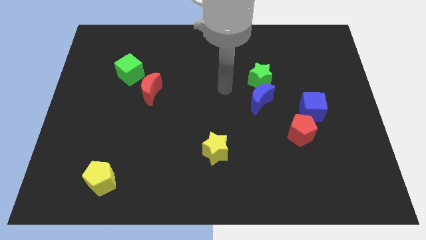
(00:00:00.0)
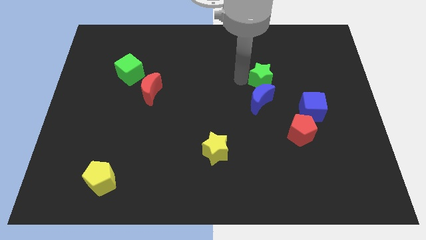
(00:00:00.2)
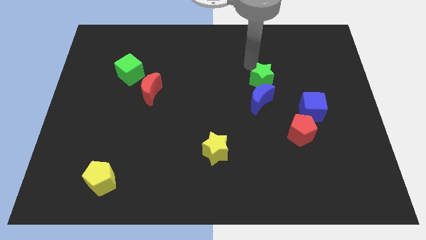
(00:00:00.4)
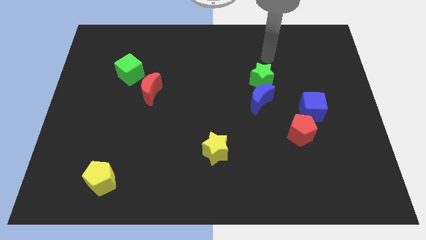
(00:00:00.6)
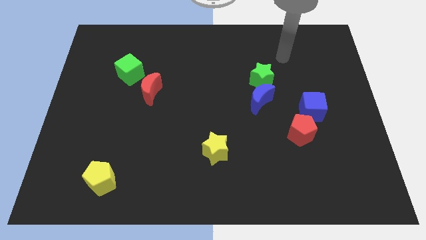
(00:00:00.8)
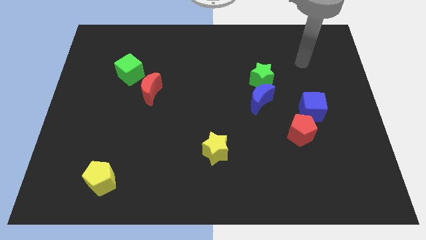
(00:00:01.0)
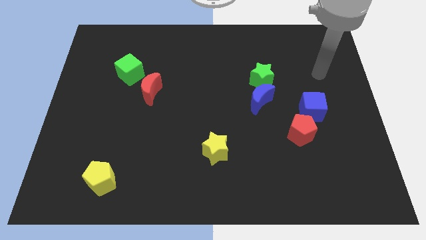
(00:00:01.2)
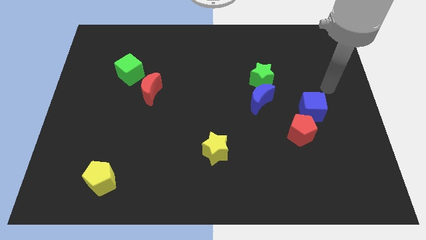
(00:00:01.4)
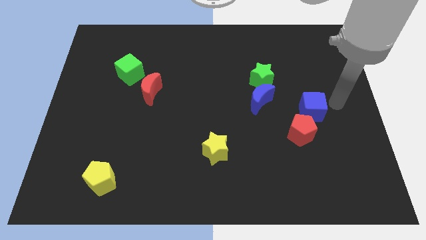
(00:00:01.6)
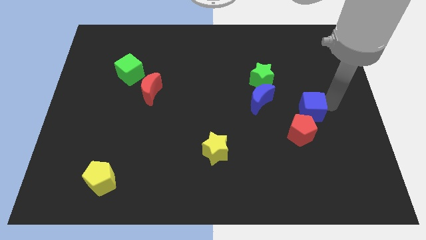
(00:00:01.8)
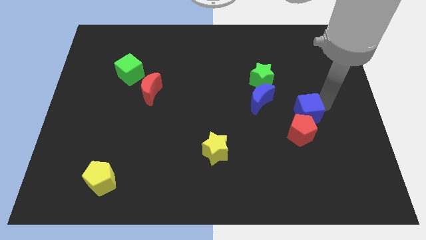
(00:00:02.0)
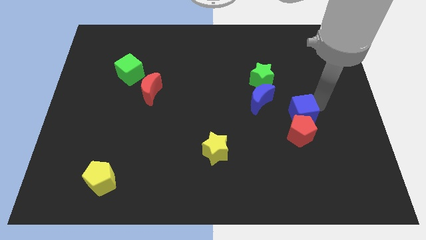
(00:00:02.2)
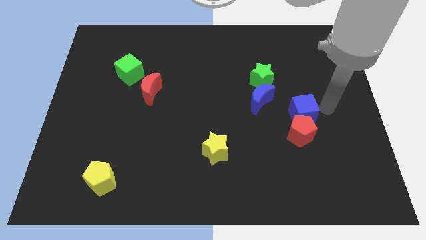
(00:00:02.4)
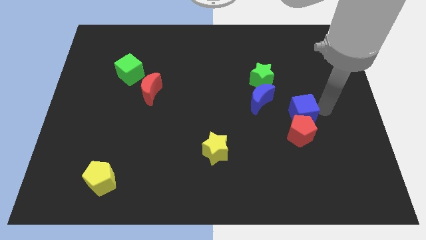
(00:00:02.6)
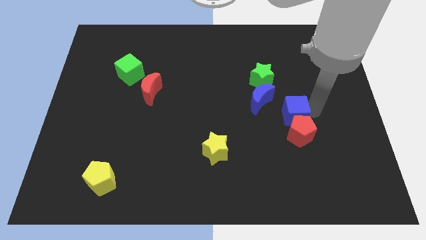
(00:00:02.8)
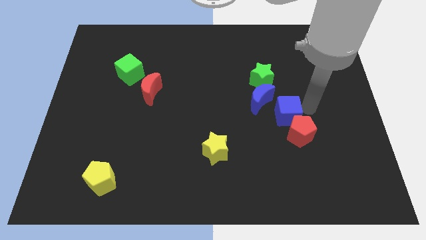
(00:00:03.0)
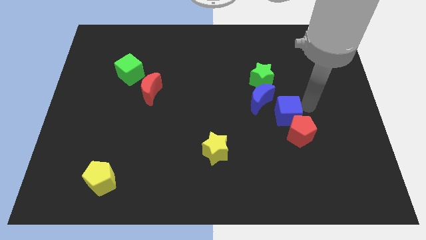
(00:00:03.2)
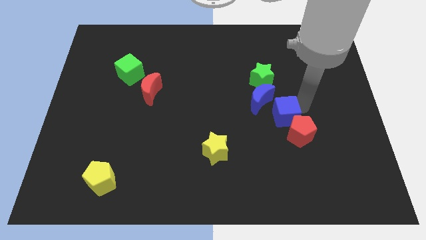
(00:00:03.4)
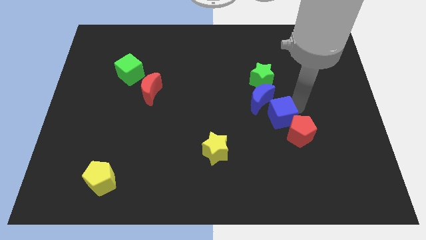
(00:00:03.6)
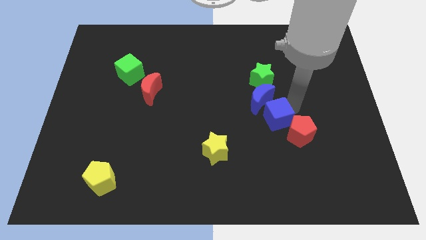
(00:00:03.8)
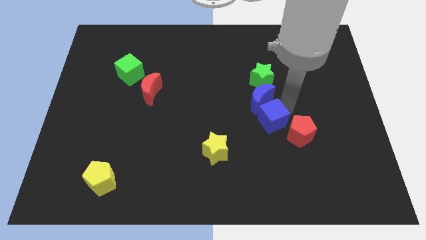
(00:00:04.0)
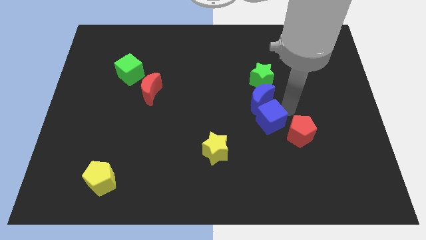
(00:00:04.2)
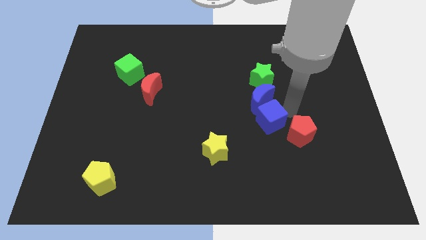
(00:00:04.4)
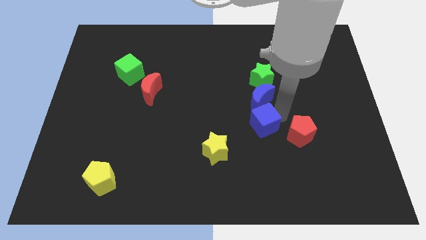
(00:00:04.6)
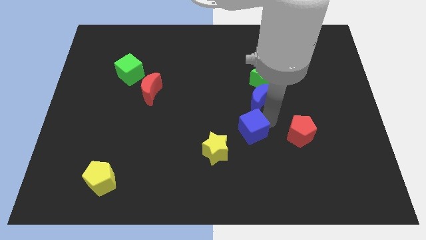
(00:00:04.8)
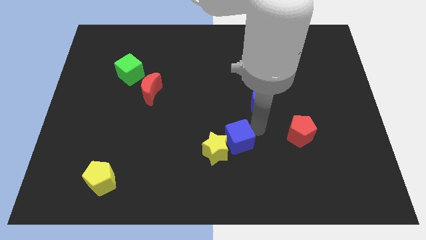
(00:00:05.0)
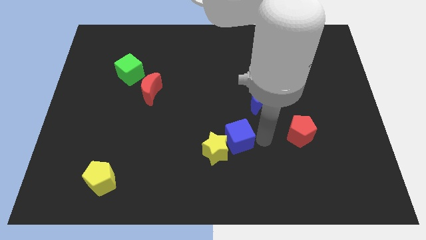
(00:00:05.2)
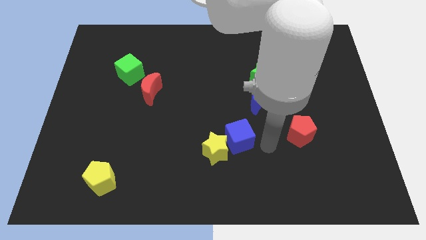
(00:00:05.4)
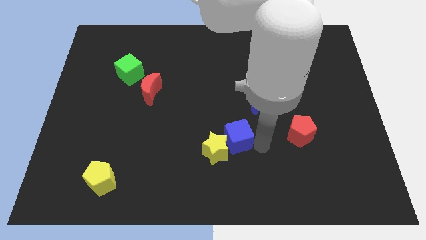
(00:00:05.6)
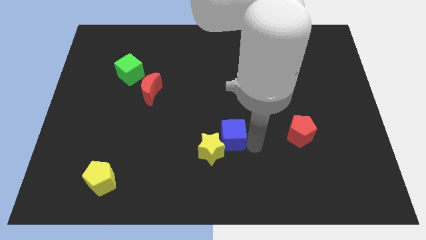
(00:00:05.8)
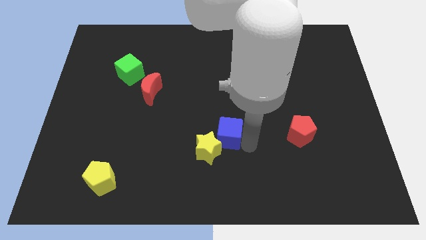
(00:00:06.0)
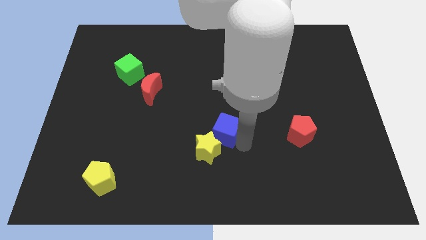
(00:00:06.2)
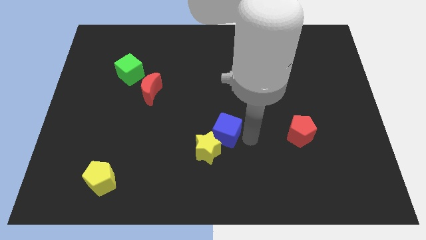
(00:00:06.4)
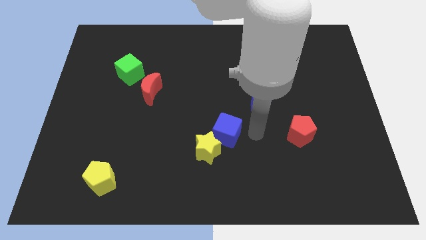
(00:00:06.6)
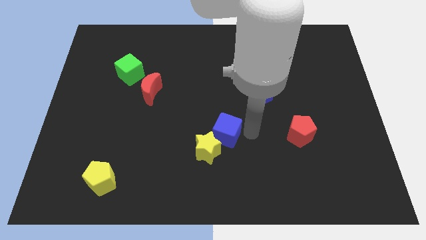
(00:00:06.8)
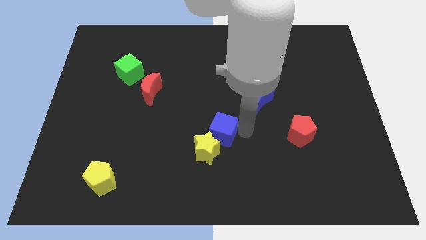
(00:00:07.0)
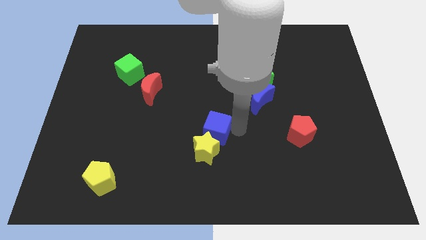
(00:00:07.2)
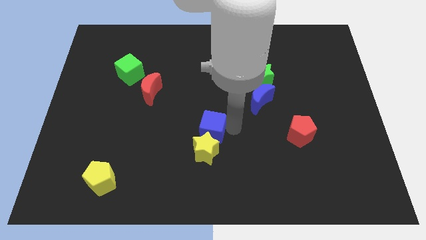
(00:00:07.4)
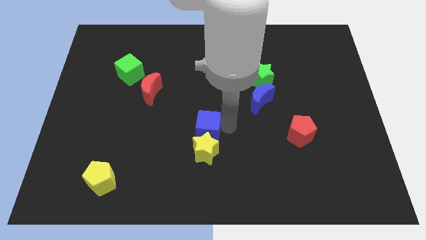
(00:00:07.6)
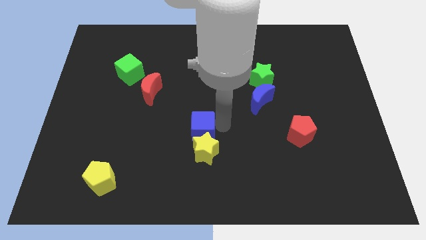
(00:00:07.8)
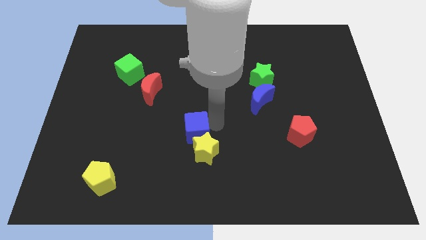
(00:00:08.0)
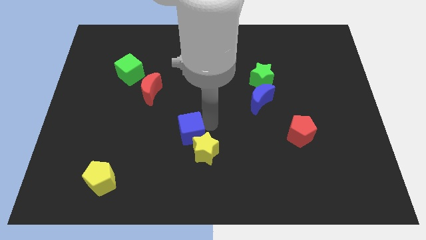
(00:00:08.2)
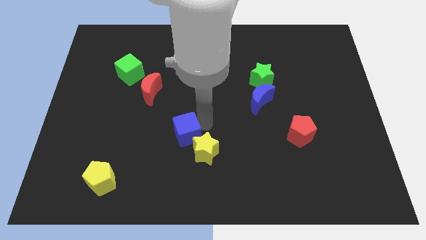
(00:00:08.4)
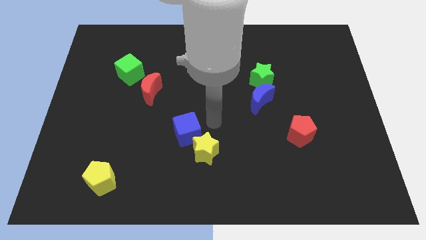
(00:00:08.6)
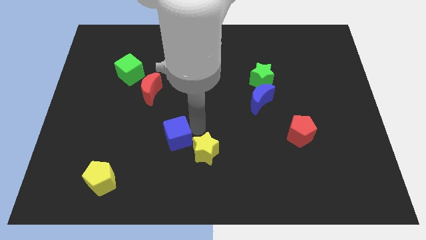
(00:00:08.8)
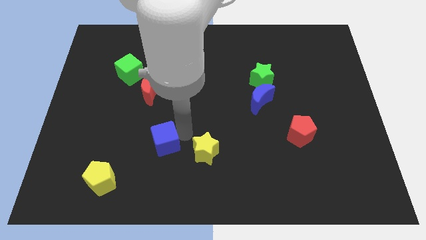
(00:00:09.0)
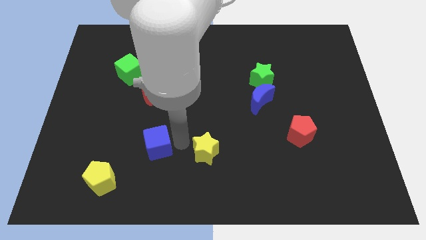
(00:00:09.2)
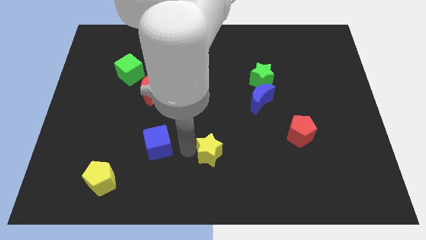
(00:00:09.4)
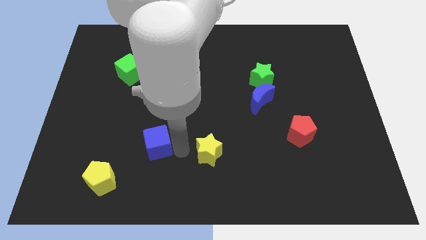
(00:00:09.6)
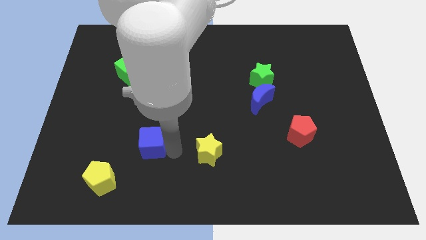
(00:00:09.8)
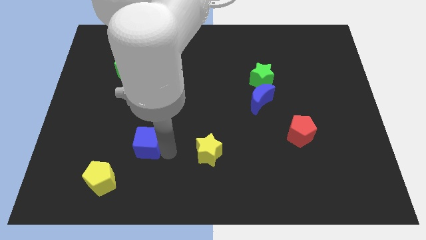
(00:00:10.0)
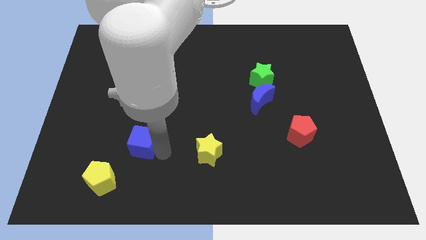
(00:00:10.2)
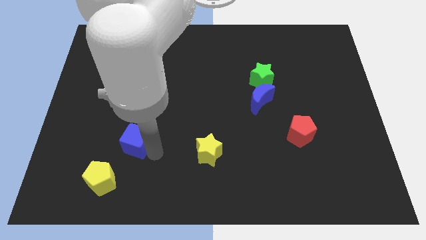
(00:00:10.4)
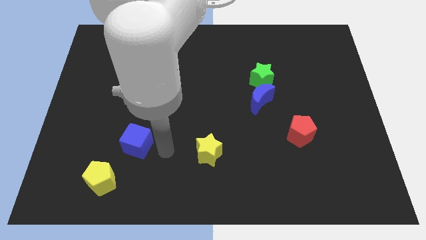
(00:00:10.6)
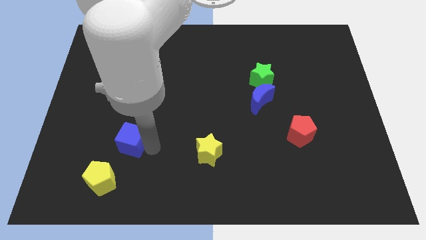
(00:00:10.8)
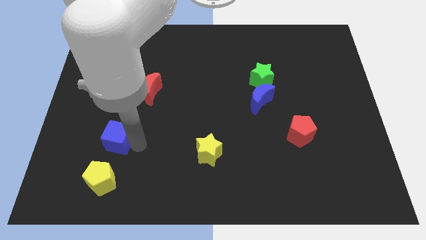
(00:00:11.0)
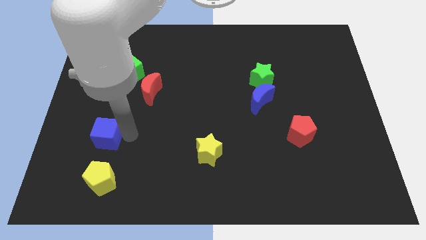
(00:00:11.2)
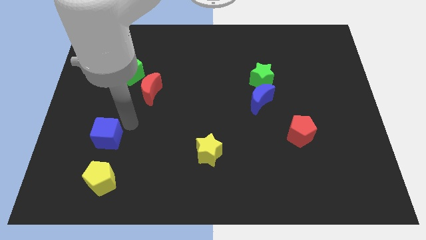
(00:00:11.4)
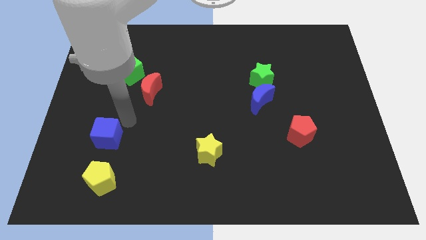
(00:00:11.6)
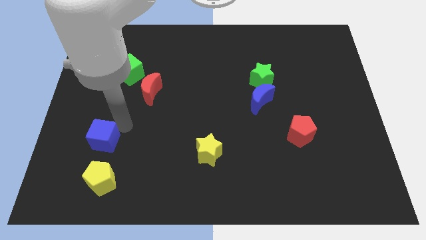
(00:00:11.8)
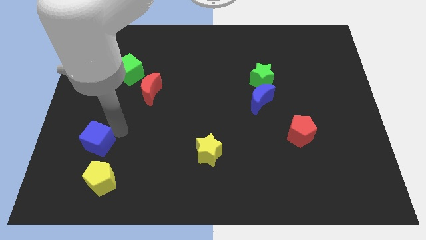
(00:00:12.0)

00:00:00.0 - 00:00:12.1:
push the blue cube to the top left of the yellow pentagon
